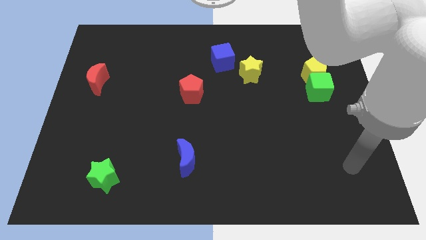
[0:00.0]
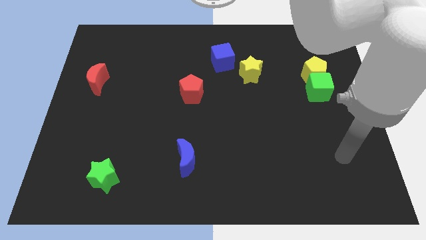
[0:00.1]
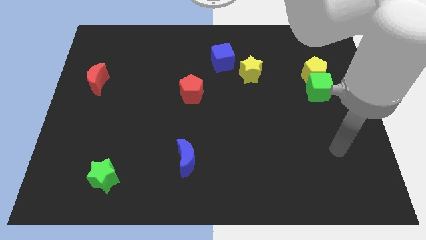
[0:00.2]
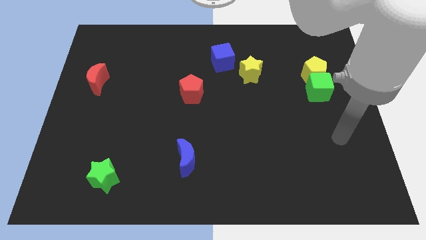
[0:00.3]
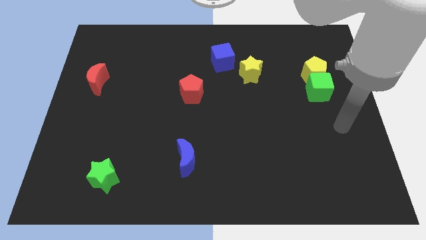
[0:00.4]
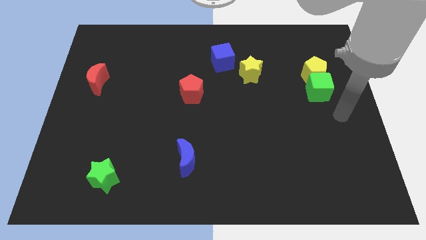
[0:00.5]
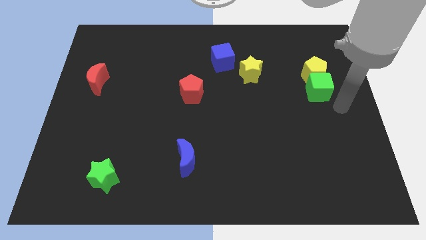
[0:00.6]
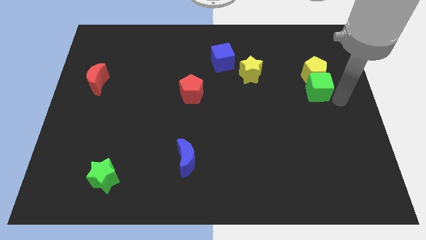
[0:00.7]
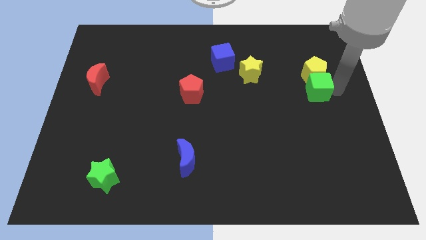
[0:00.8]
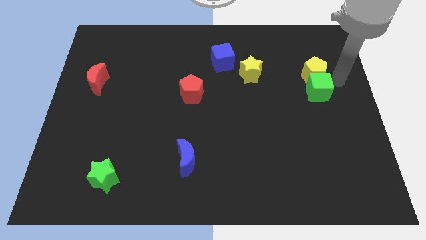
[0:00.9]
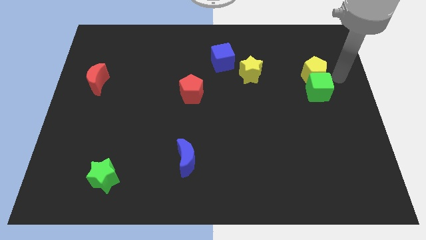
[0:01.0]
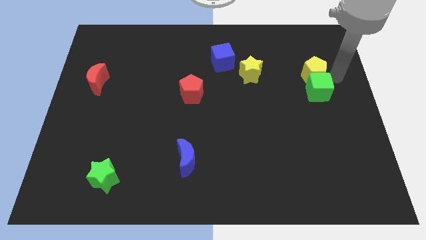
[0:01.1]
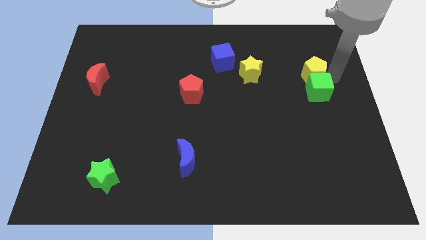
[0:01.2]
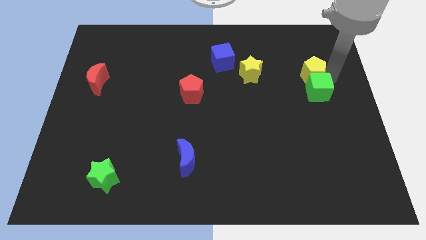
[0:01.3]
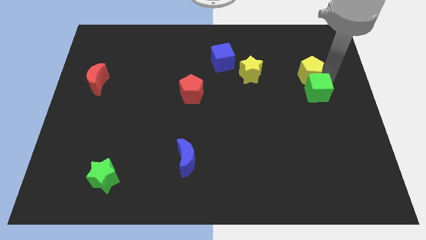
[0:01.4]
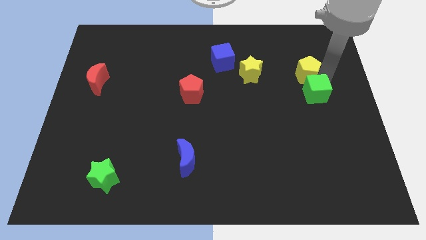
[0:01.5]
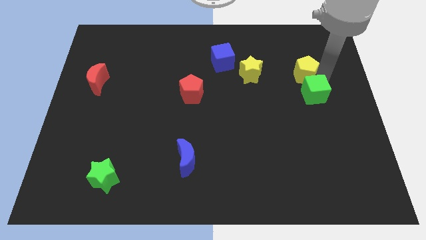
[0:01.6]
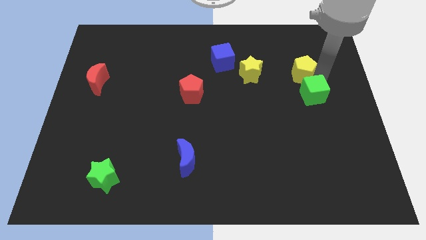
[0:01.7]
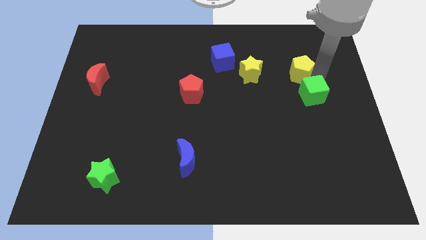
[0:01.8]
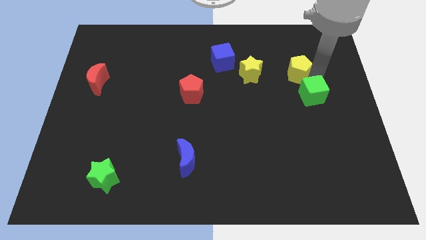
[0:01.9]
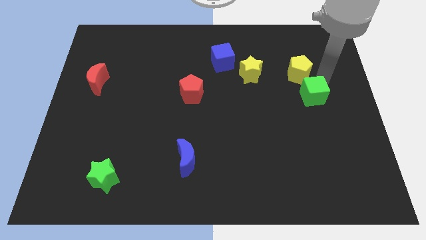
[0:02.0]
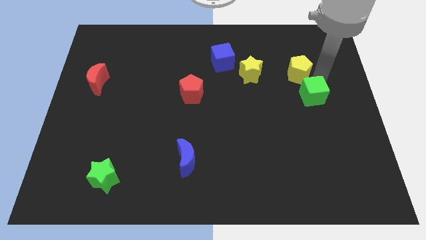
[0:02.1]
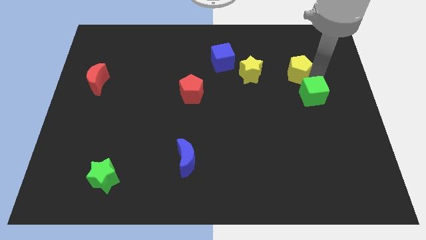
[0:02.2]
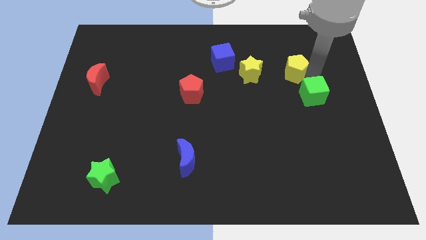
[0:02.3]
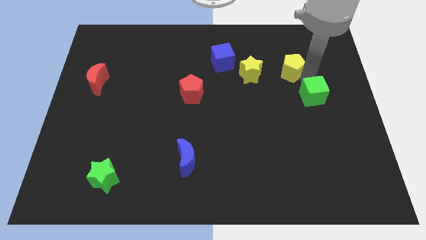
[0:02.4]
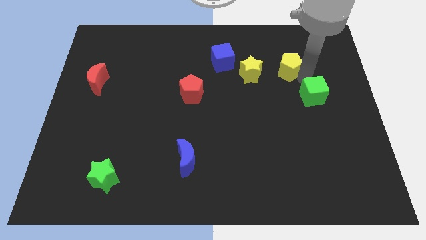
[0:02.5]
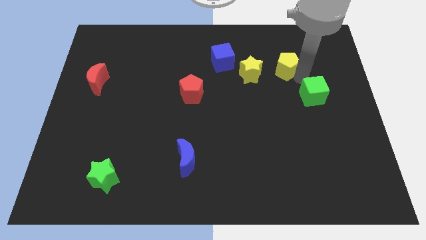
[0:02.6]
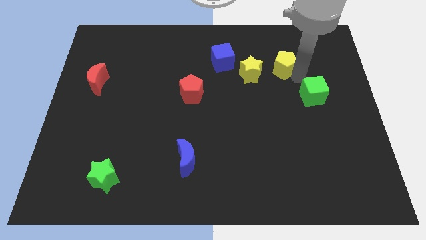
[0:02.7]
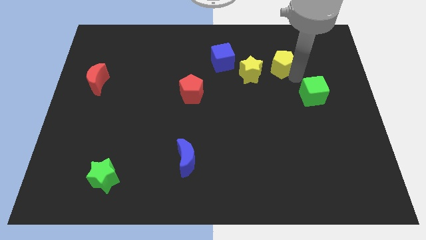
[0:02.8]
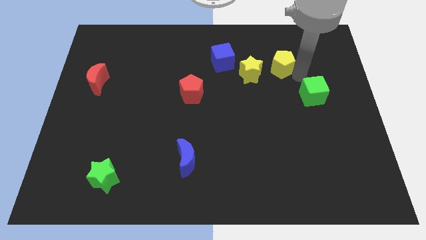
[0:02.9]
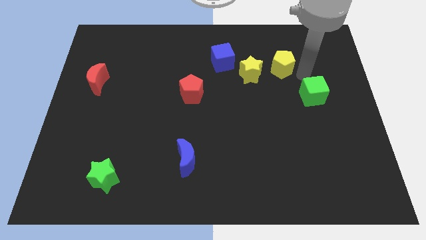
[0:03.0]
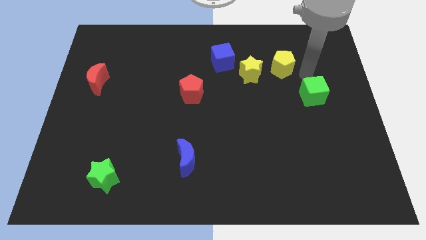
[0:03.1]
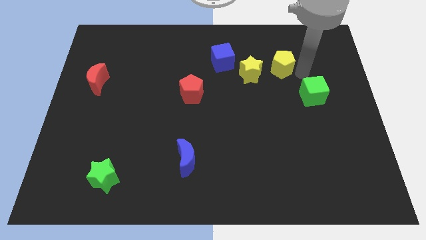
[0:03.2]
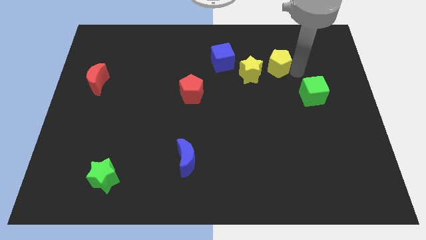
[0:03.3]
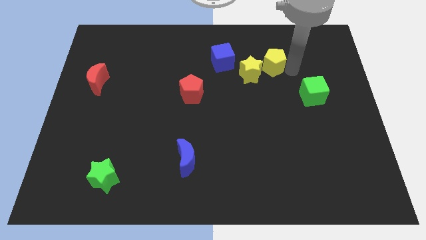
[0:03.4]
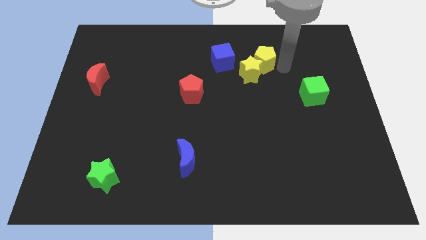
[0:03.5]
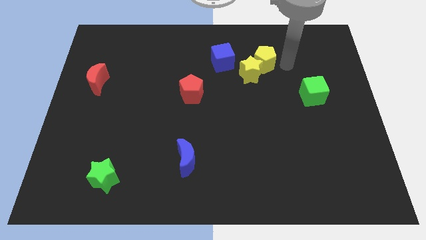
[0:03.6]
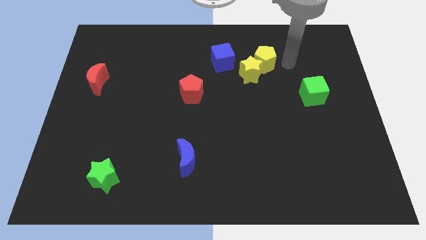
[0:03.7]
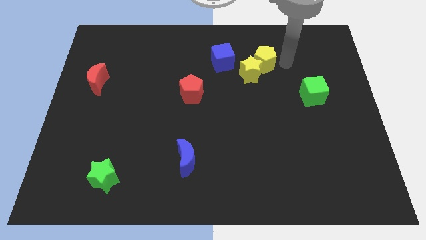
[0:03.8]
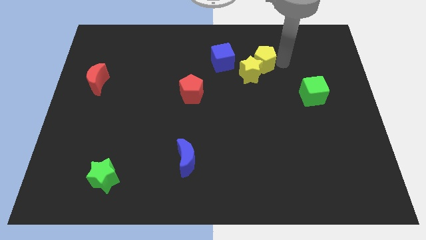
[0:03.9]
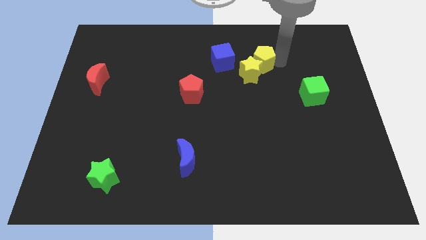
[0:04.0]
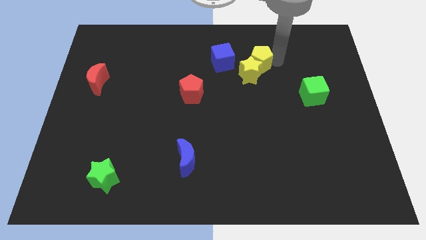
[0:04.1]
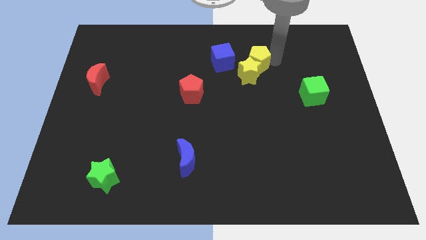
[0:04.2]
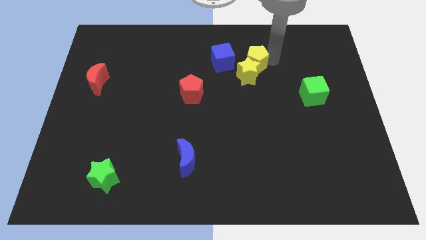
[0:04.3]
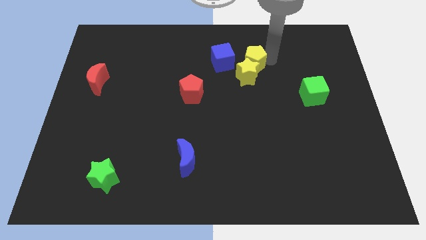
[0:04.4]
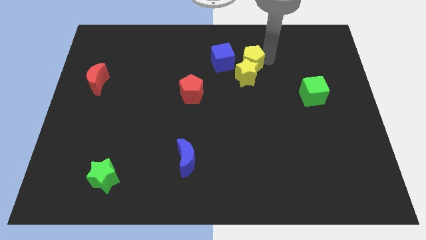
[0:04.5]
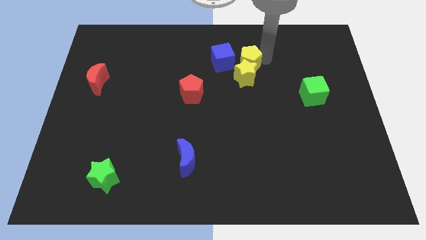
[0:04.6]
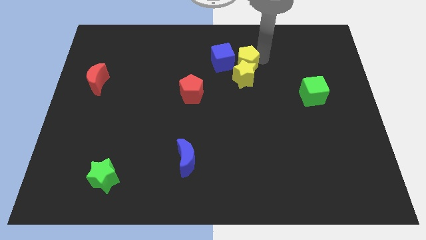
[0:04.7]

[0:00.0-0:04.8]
slide the yellow pentagon to the blue cube

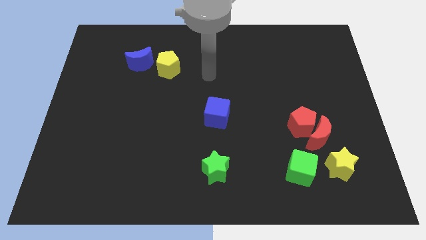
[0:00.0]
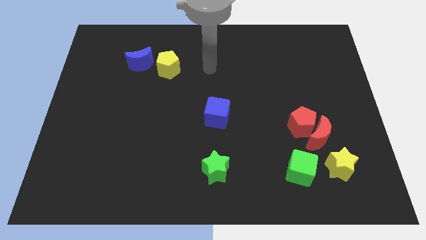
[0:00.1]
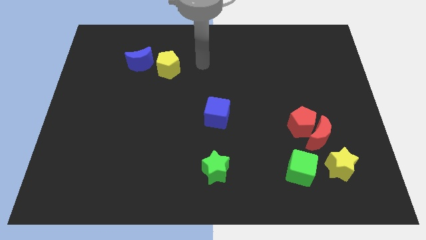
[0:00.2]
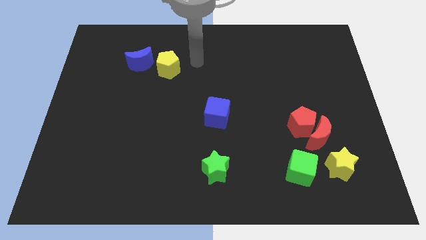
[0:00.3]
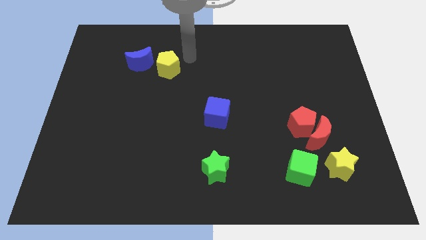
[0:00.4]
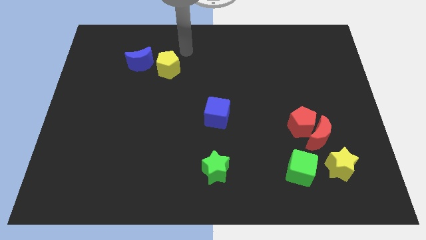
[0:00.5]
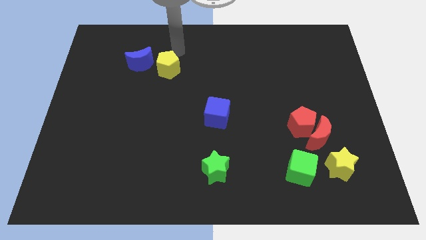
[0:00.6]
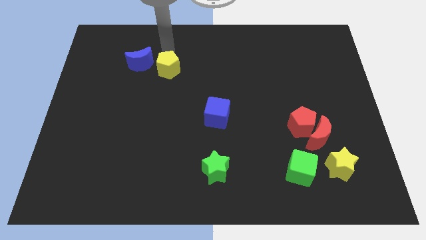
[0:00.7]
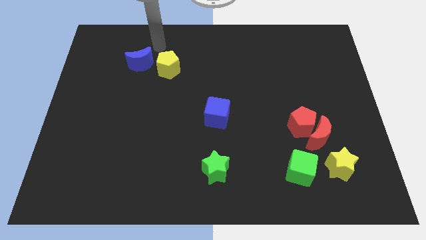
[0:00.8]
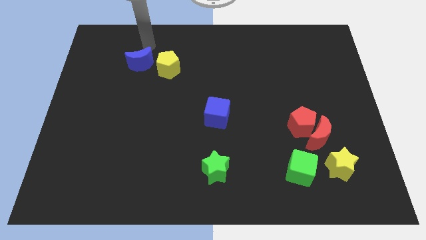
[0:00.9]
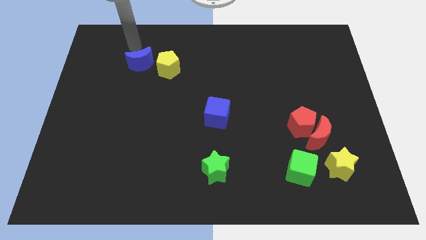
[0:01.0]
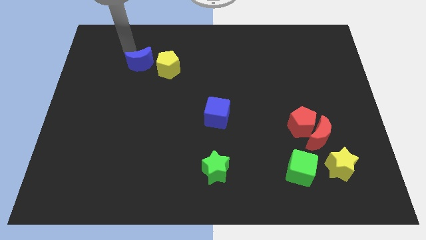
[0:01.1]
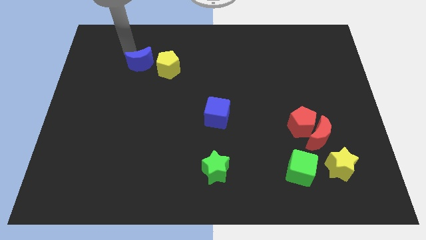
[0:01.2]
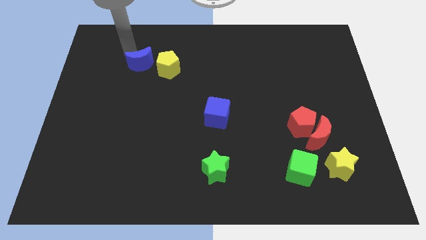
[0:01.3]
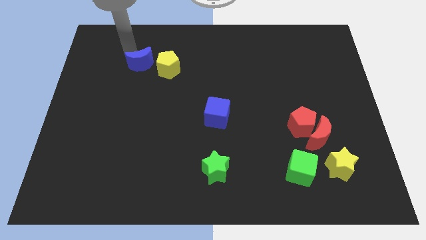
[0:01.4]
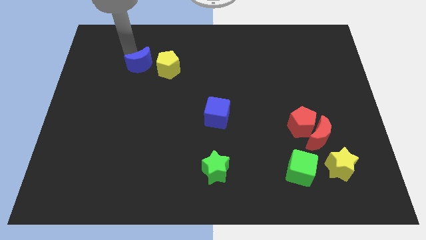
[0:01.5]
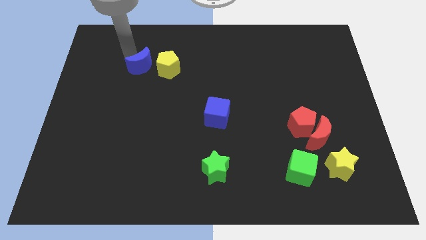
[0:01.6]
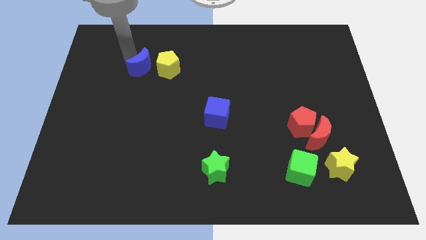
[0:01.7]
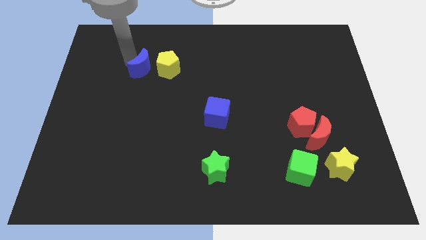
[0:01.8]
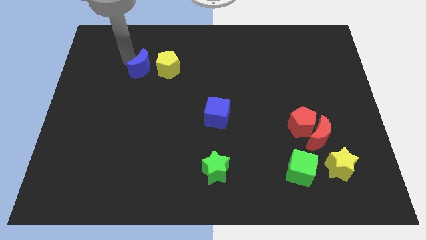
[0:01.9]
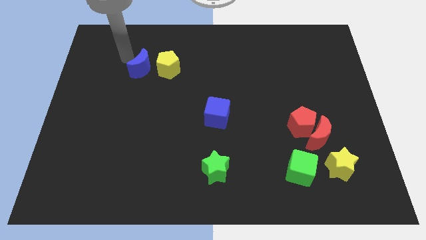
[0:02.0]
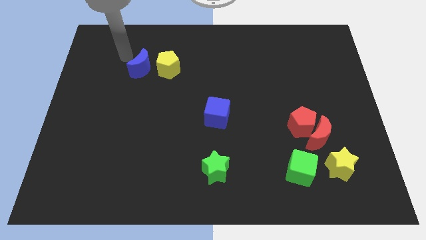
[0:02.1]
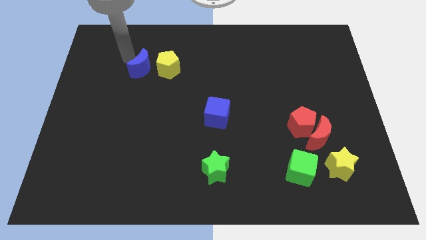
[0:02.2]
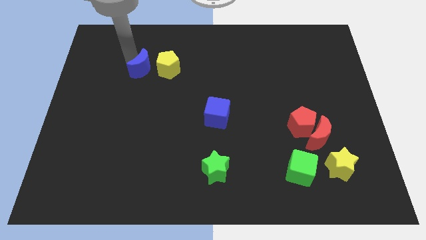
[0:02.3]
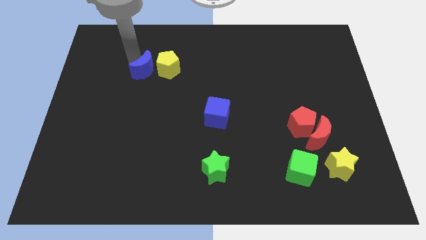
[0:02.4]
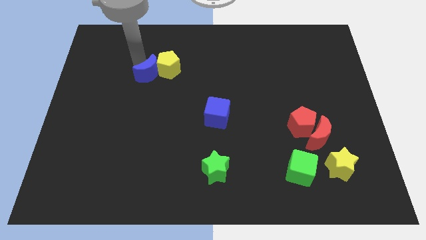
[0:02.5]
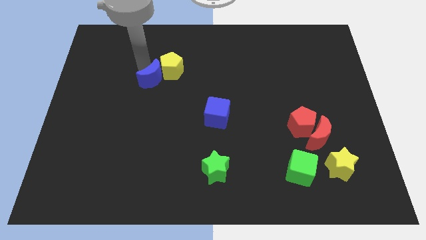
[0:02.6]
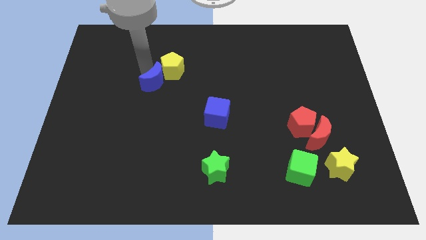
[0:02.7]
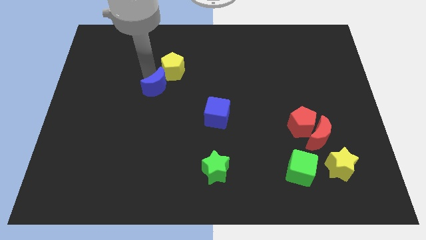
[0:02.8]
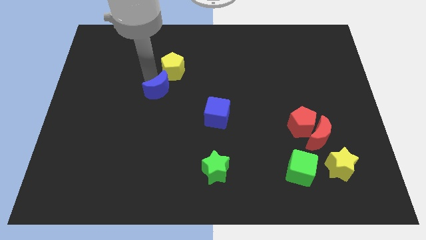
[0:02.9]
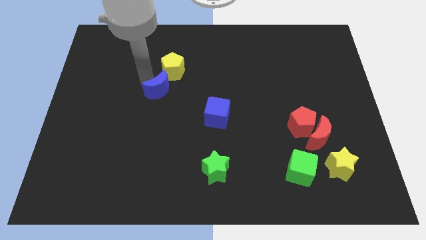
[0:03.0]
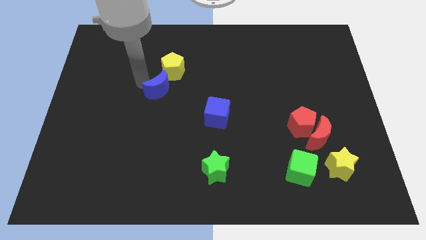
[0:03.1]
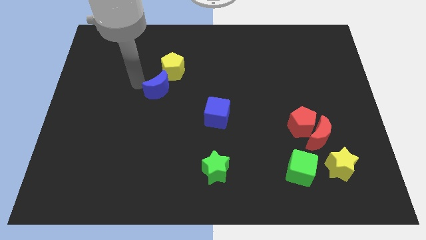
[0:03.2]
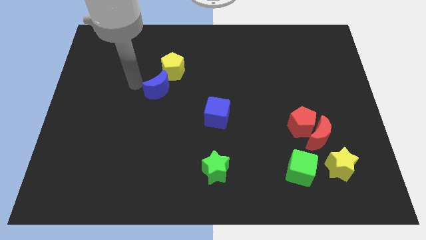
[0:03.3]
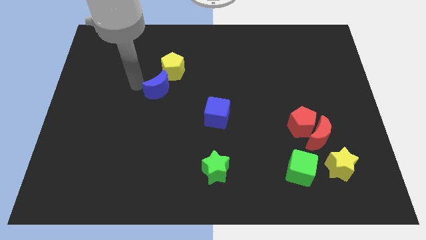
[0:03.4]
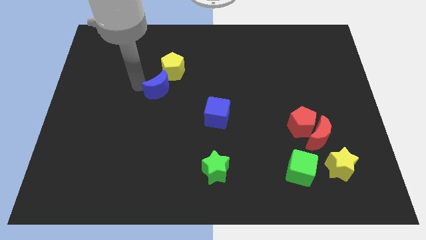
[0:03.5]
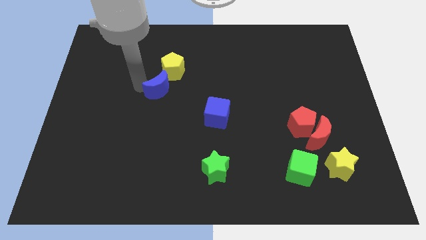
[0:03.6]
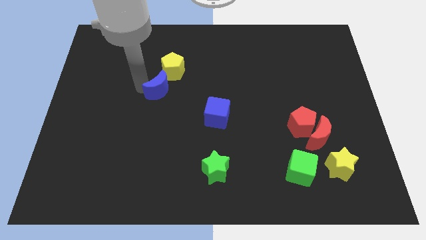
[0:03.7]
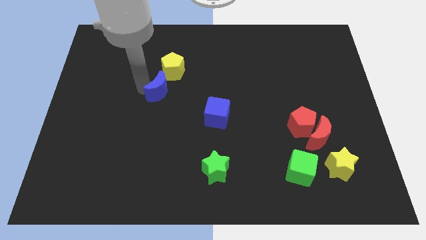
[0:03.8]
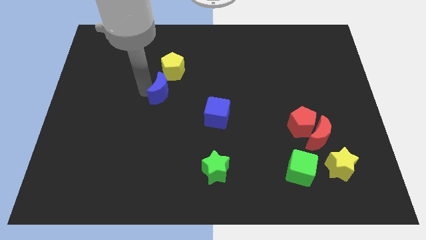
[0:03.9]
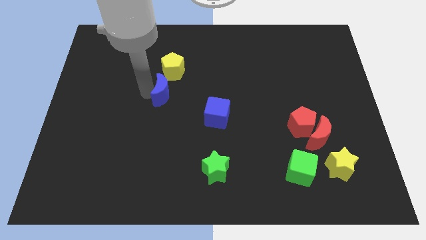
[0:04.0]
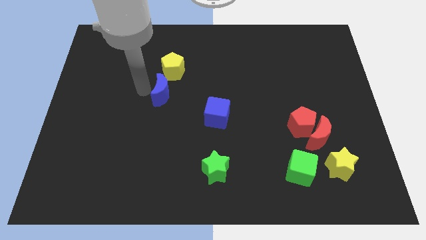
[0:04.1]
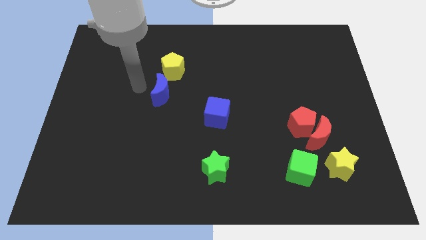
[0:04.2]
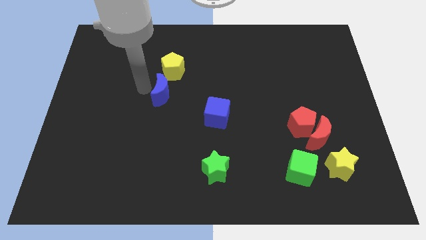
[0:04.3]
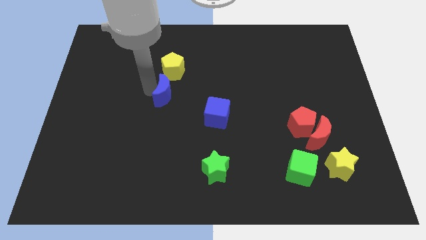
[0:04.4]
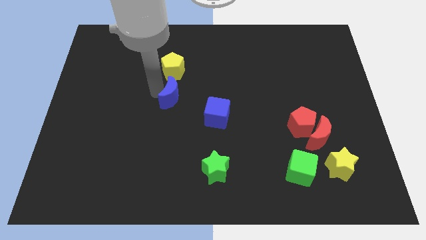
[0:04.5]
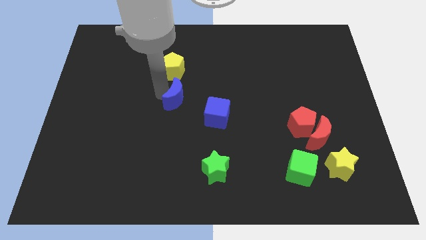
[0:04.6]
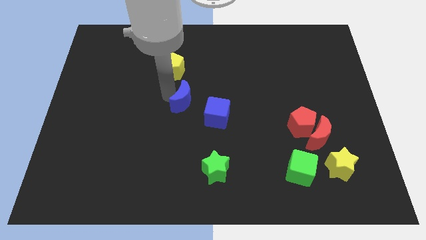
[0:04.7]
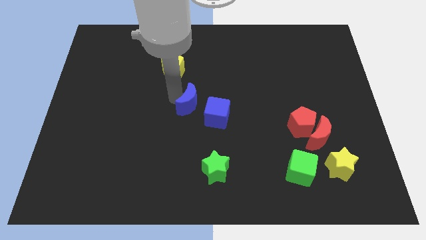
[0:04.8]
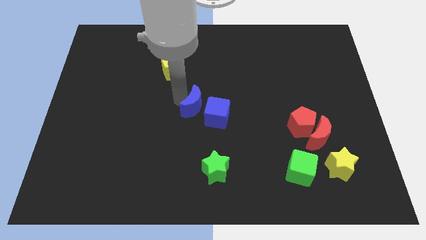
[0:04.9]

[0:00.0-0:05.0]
slide the blue moon close to the blue cube
